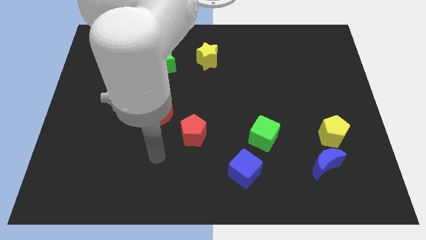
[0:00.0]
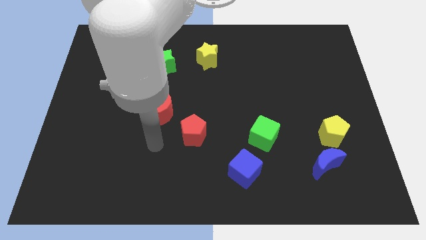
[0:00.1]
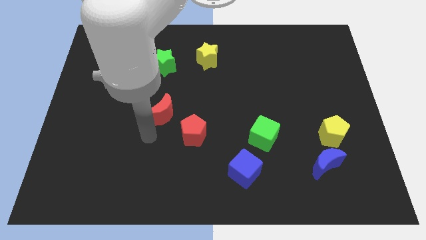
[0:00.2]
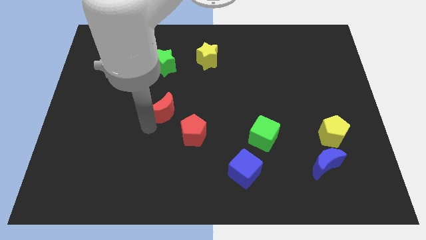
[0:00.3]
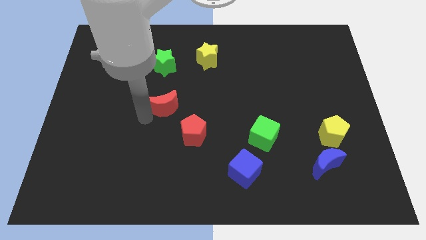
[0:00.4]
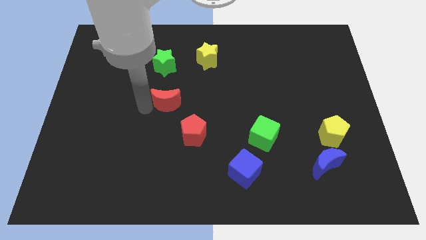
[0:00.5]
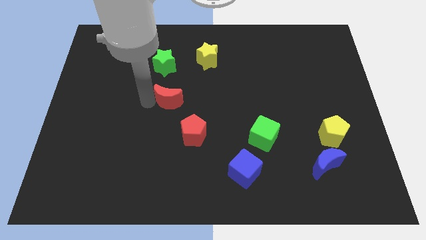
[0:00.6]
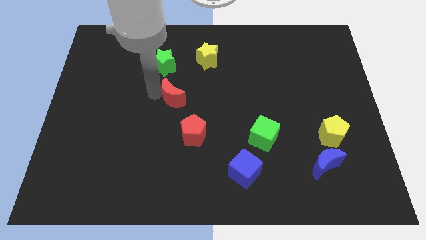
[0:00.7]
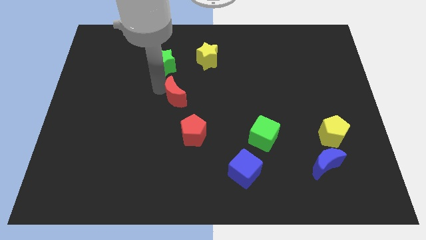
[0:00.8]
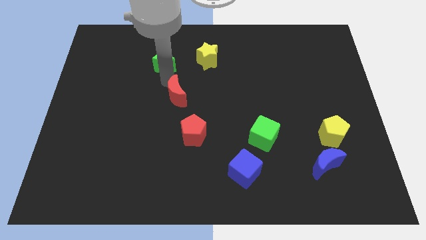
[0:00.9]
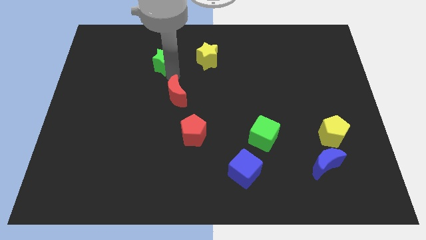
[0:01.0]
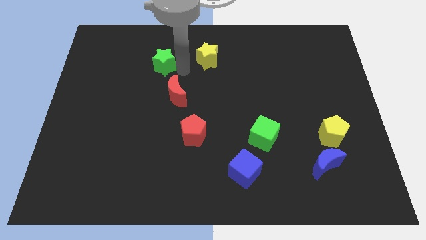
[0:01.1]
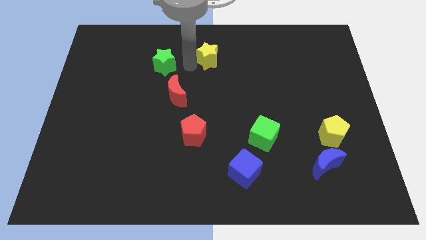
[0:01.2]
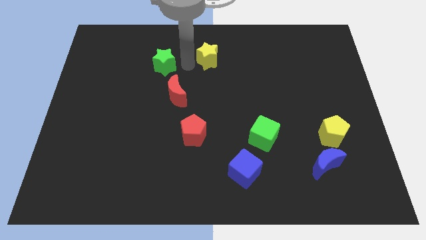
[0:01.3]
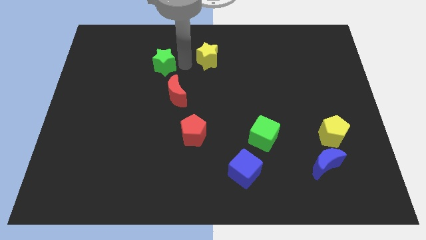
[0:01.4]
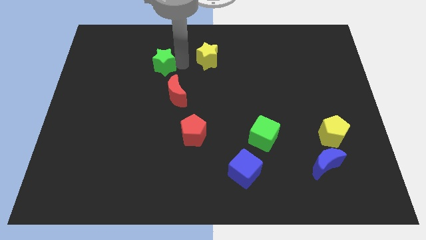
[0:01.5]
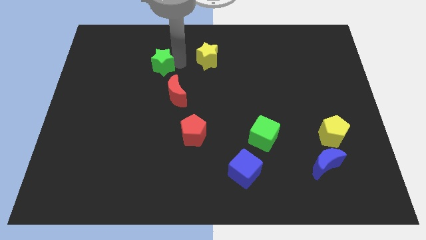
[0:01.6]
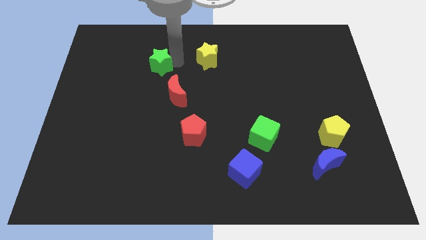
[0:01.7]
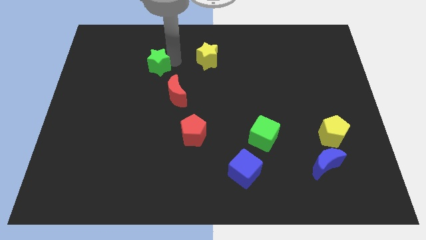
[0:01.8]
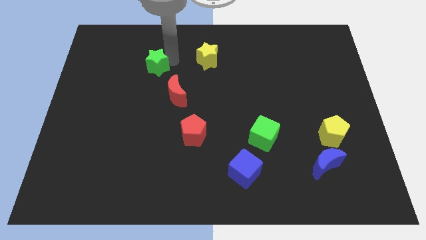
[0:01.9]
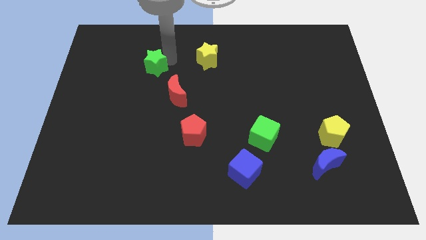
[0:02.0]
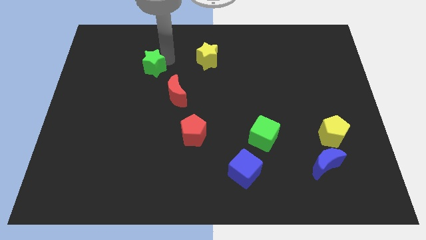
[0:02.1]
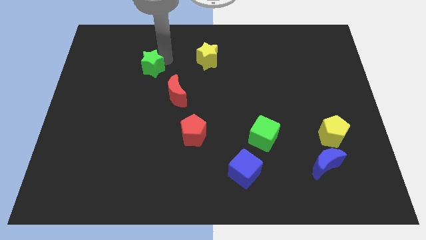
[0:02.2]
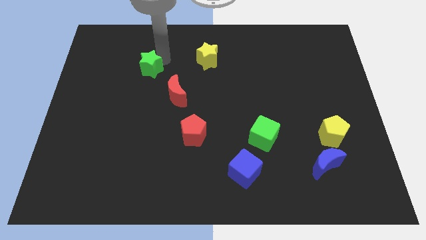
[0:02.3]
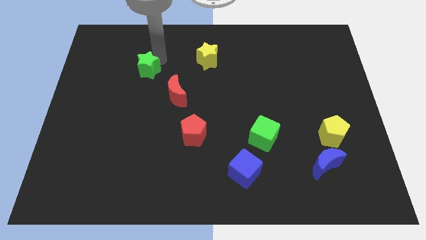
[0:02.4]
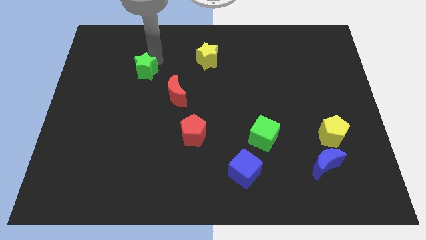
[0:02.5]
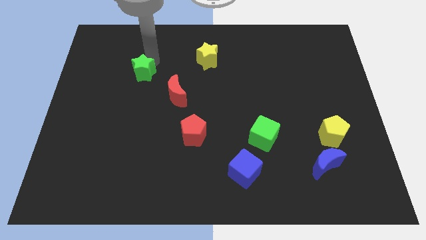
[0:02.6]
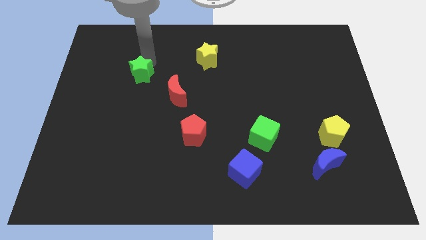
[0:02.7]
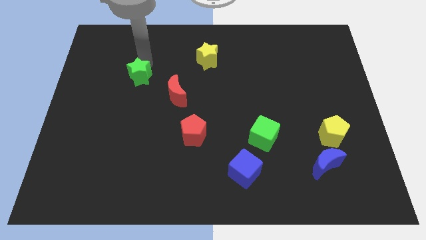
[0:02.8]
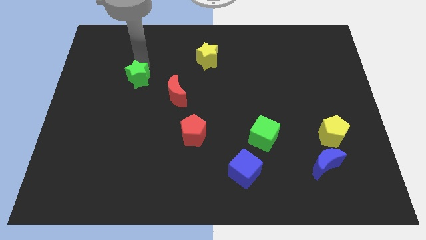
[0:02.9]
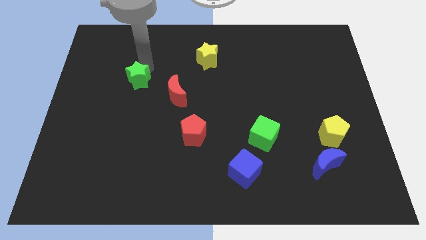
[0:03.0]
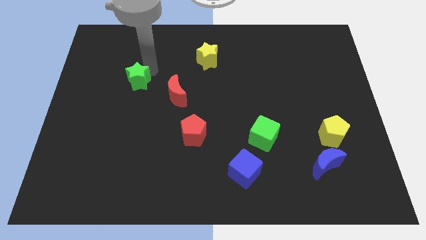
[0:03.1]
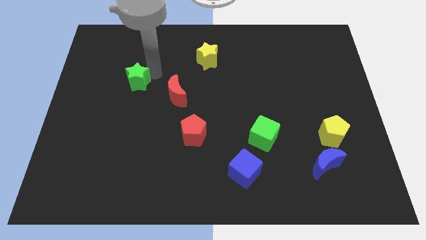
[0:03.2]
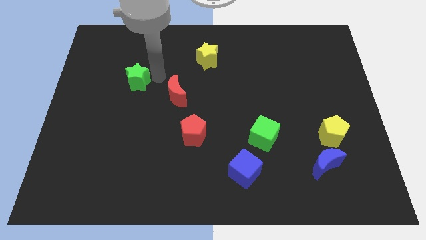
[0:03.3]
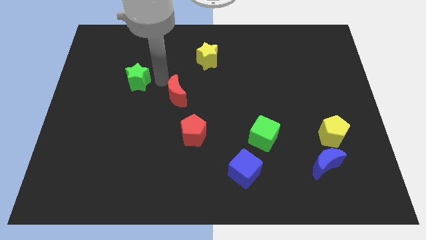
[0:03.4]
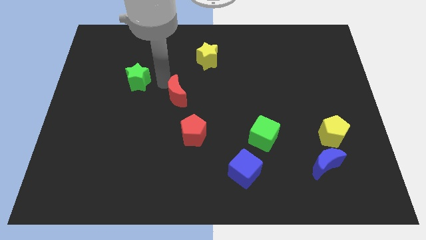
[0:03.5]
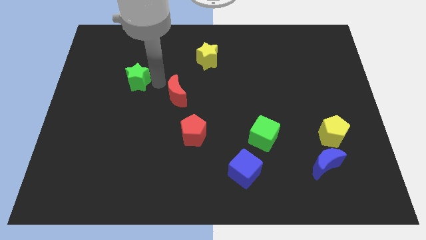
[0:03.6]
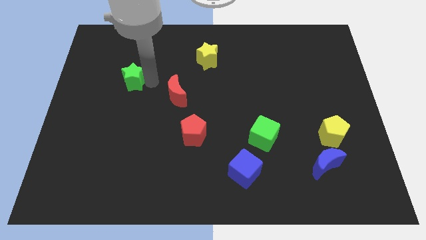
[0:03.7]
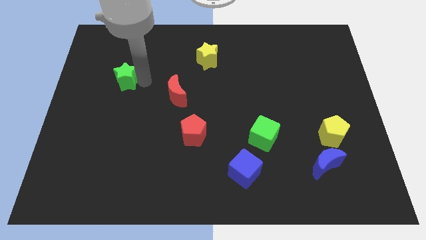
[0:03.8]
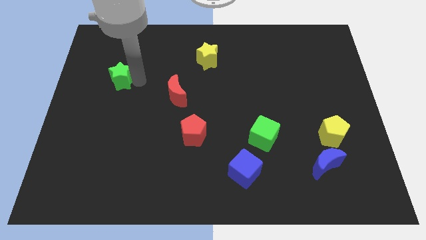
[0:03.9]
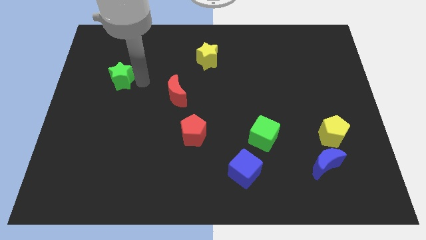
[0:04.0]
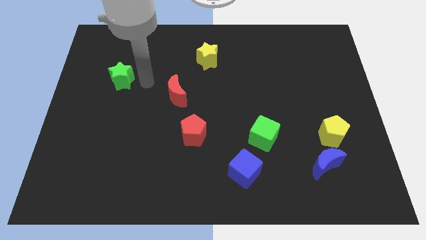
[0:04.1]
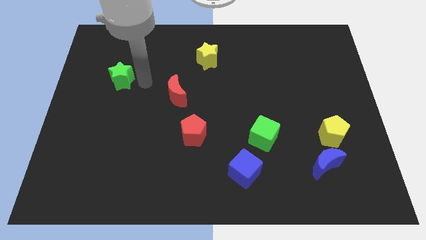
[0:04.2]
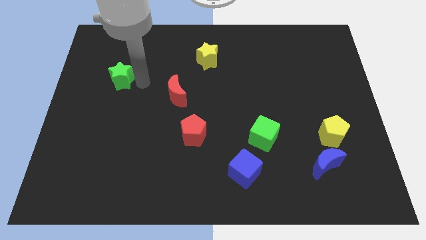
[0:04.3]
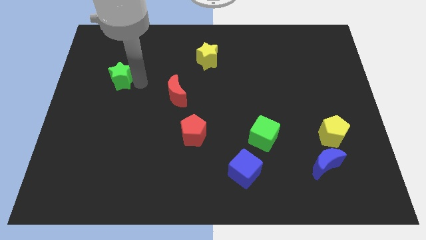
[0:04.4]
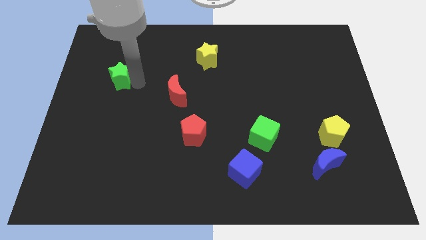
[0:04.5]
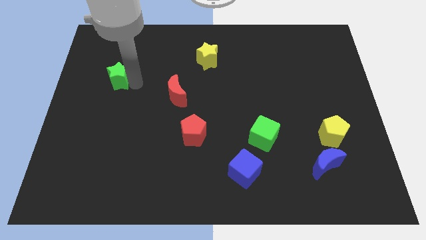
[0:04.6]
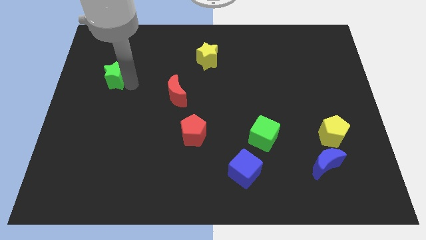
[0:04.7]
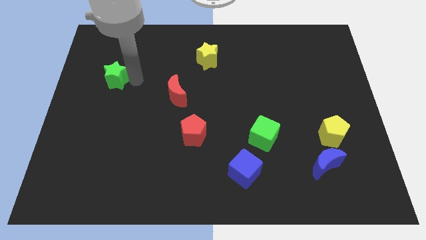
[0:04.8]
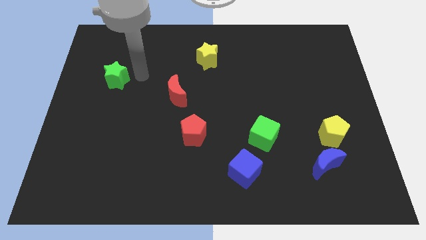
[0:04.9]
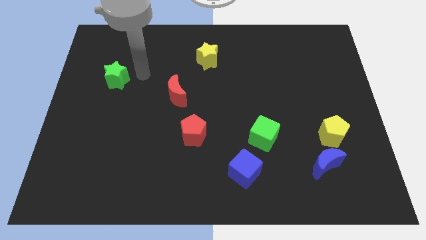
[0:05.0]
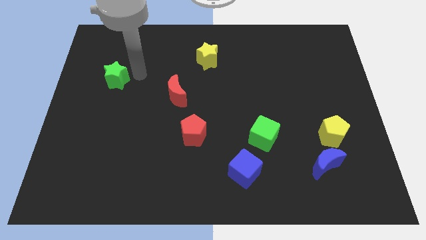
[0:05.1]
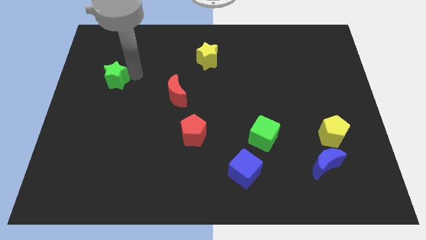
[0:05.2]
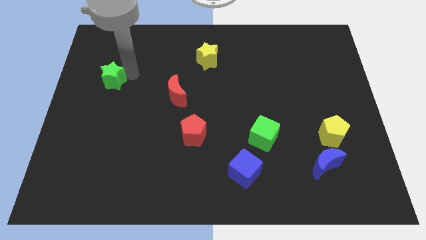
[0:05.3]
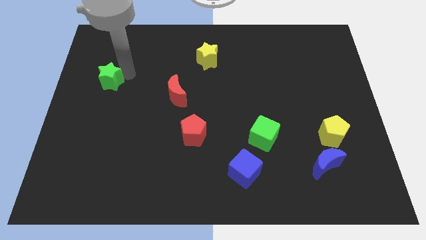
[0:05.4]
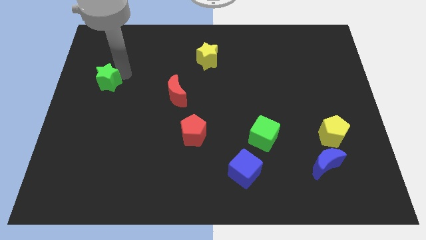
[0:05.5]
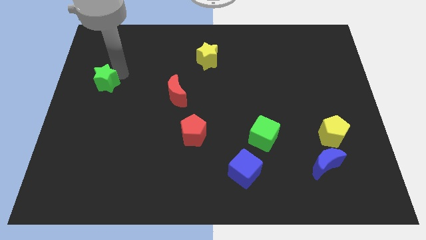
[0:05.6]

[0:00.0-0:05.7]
push the green star to the center left

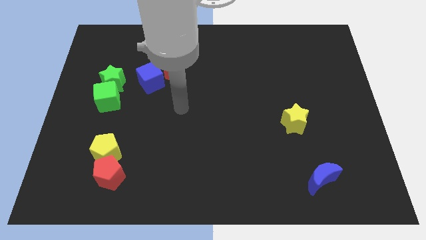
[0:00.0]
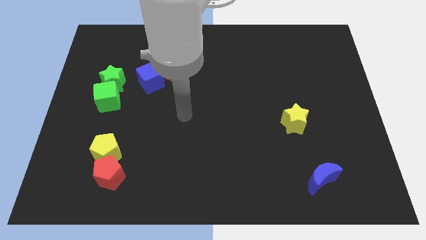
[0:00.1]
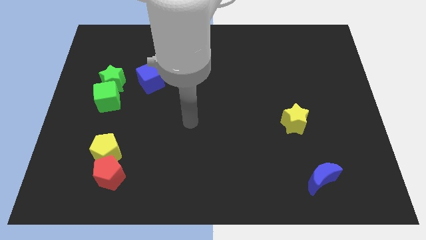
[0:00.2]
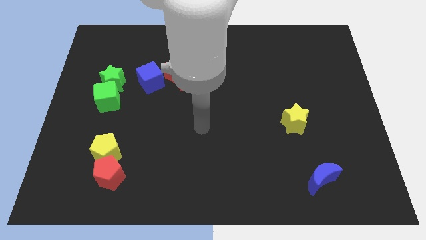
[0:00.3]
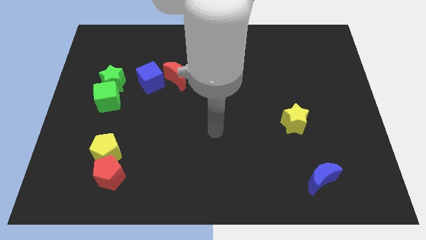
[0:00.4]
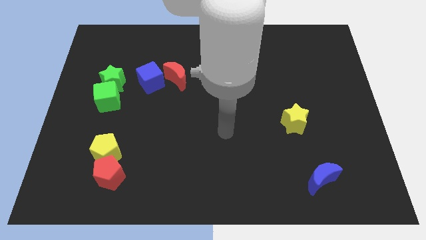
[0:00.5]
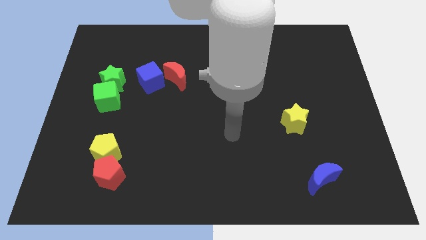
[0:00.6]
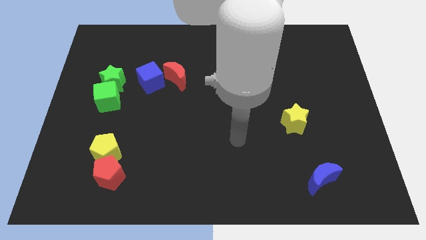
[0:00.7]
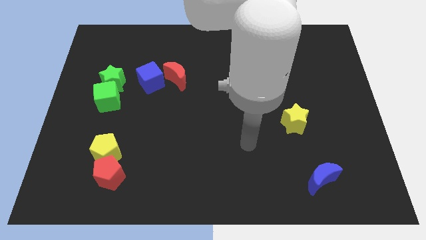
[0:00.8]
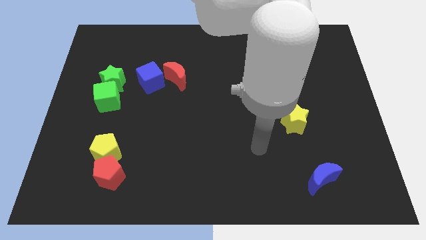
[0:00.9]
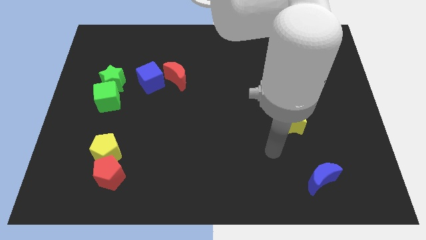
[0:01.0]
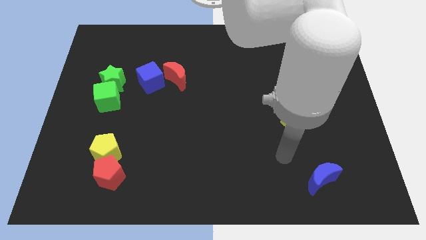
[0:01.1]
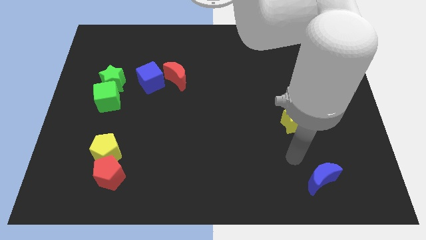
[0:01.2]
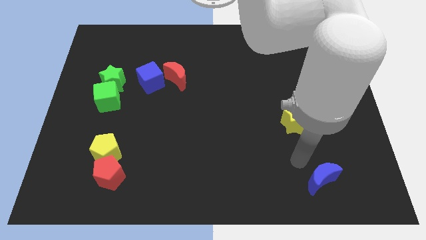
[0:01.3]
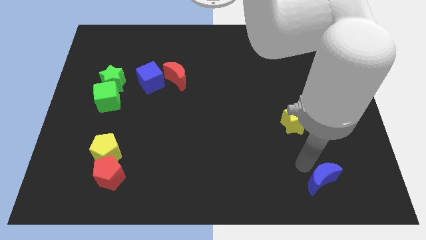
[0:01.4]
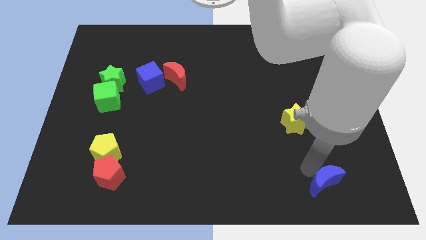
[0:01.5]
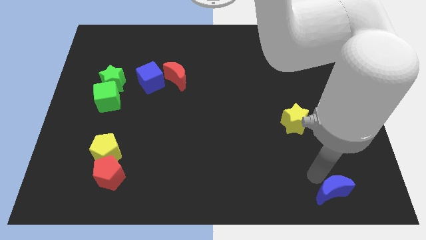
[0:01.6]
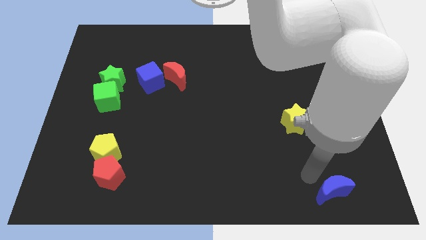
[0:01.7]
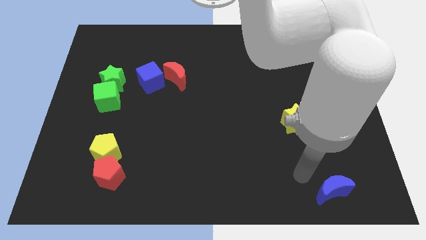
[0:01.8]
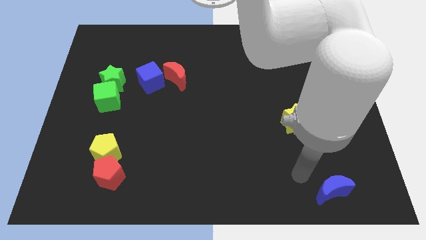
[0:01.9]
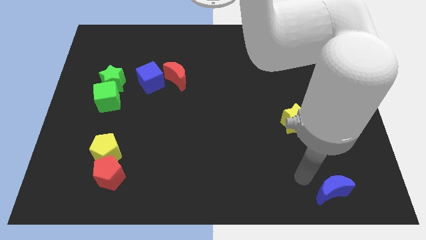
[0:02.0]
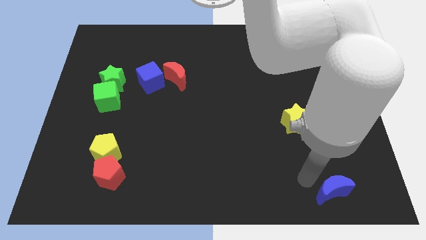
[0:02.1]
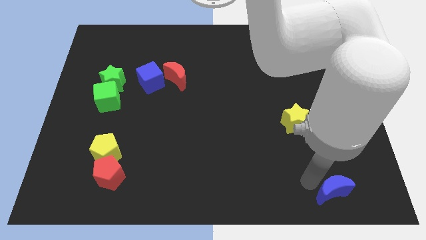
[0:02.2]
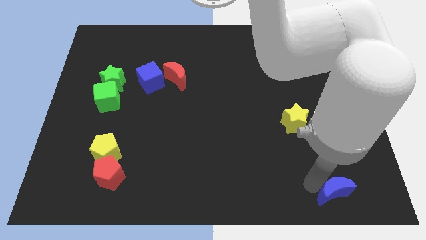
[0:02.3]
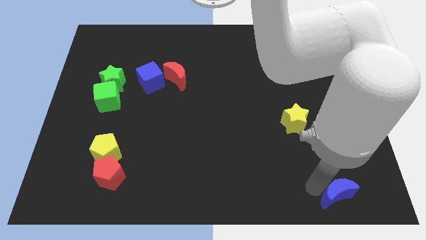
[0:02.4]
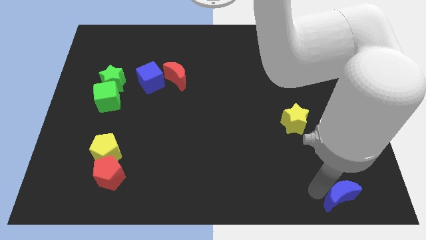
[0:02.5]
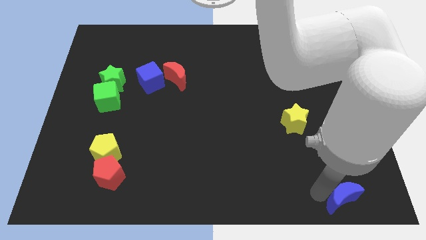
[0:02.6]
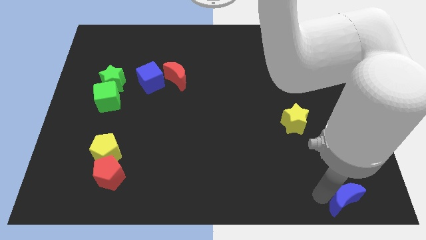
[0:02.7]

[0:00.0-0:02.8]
push the blue moon to the bottom right corner
